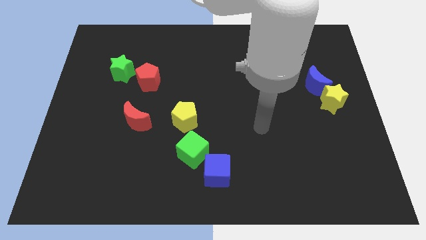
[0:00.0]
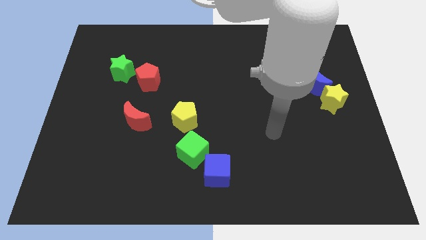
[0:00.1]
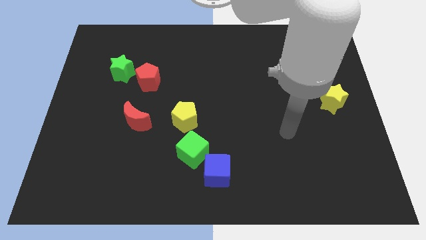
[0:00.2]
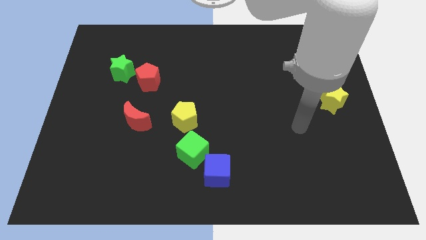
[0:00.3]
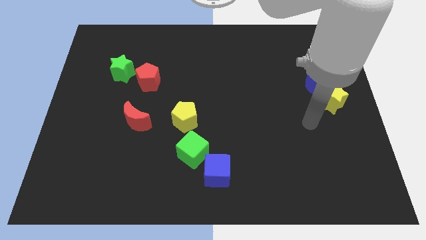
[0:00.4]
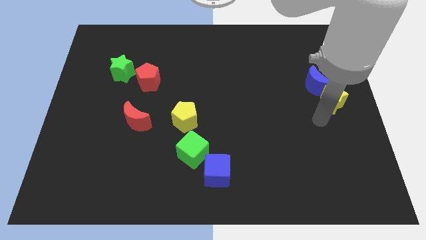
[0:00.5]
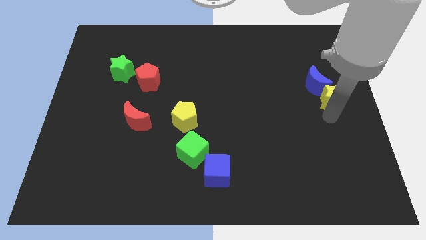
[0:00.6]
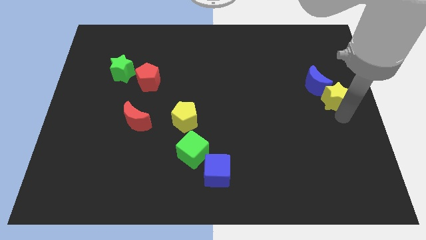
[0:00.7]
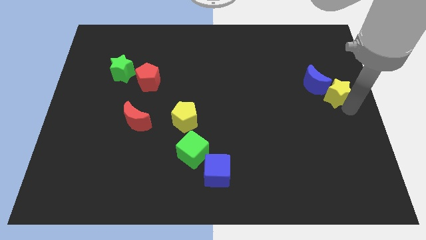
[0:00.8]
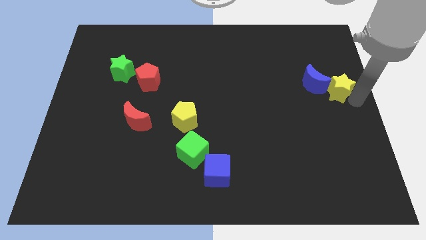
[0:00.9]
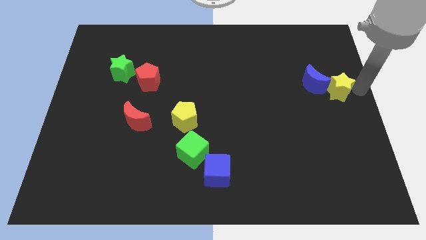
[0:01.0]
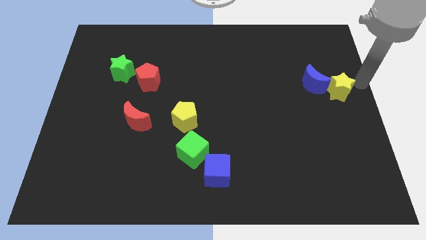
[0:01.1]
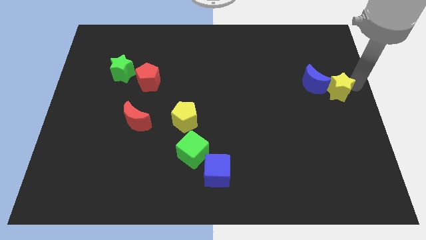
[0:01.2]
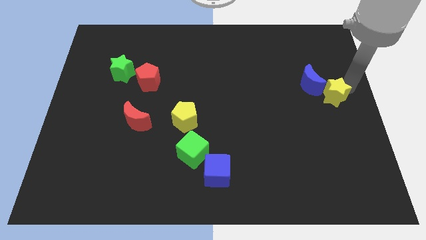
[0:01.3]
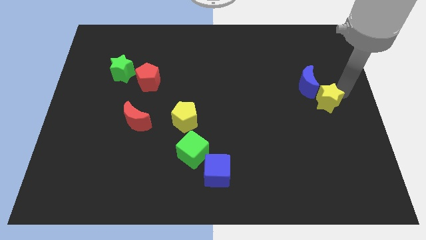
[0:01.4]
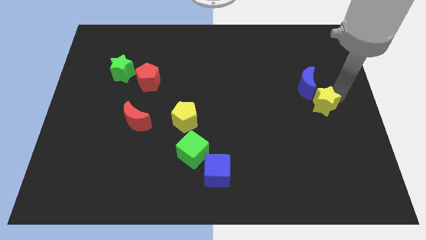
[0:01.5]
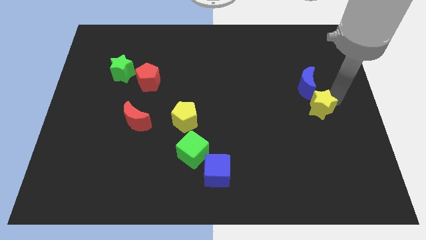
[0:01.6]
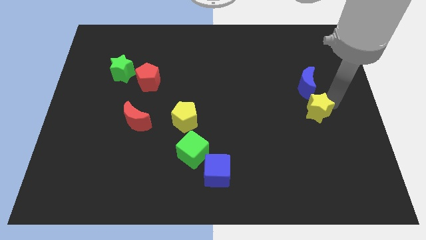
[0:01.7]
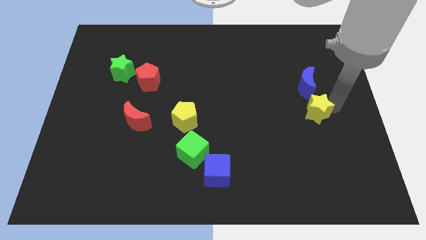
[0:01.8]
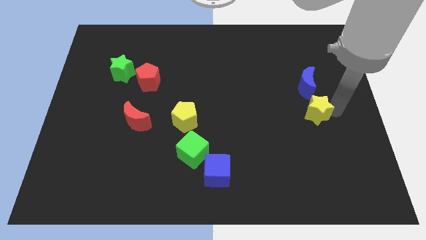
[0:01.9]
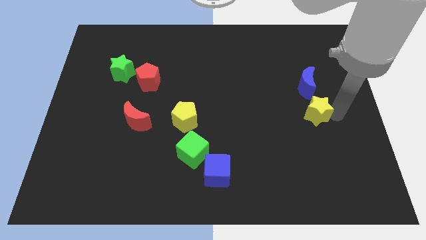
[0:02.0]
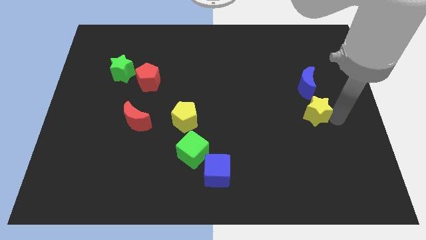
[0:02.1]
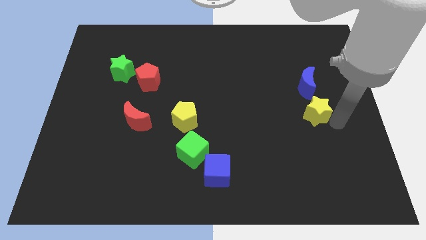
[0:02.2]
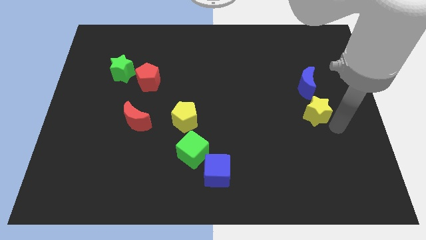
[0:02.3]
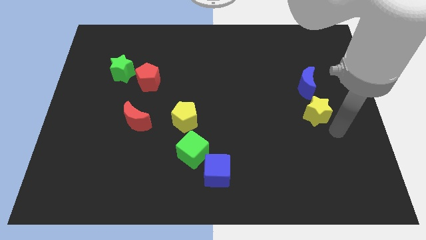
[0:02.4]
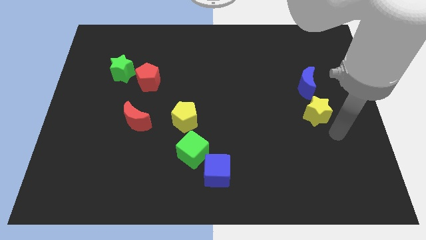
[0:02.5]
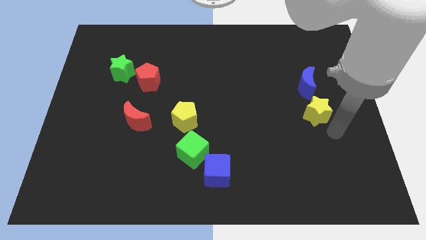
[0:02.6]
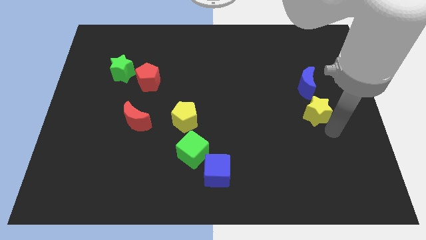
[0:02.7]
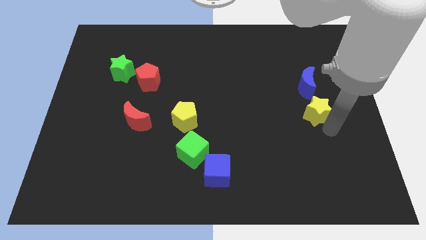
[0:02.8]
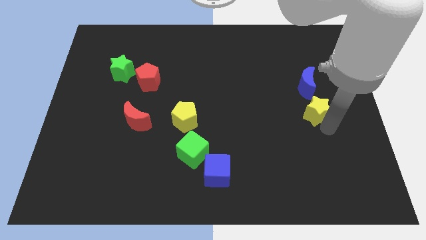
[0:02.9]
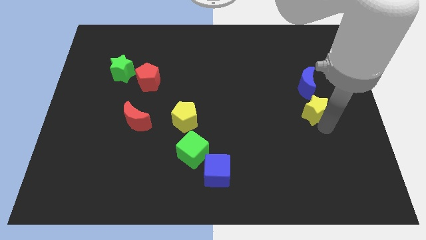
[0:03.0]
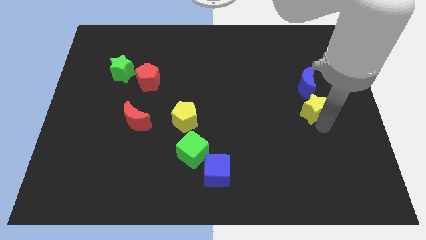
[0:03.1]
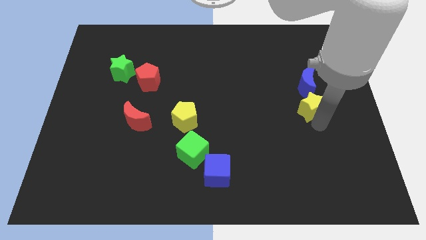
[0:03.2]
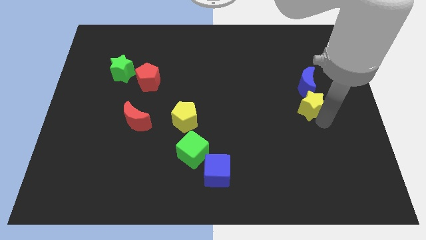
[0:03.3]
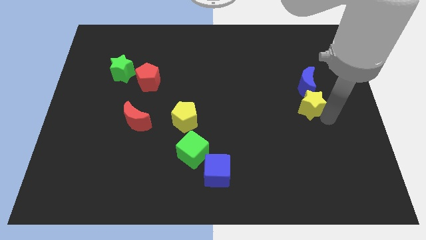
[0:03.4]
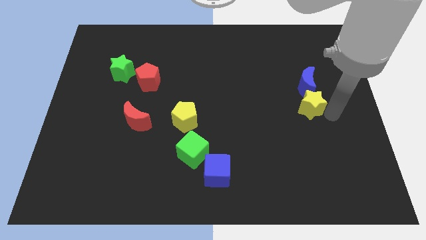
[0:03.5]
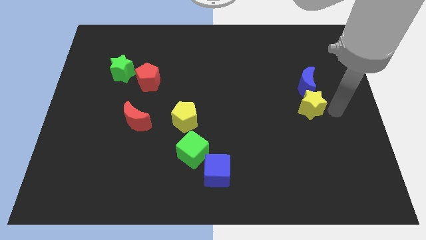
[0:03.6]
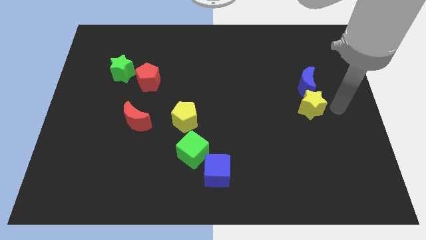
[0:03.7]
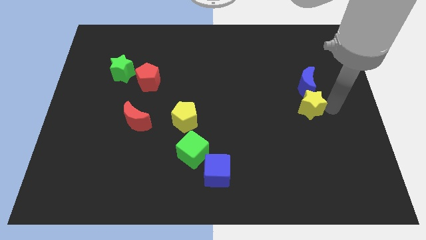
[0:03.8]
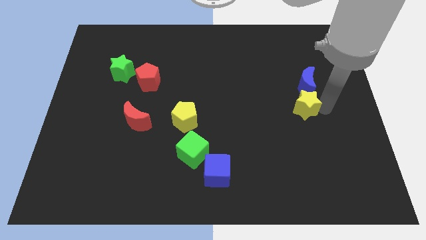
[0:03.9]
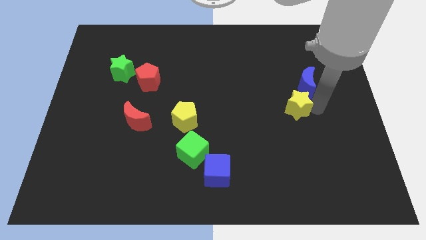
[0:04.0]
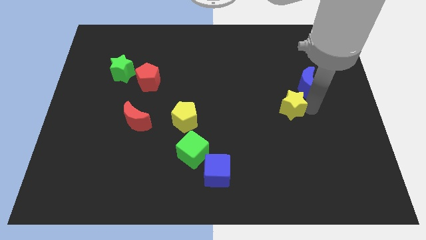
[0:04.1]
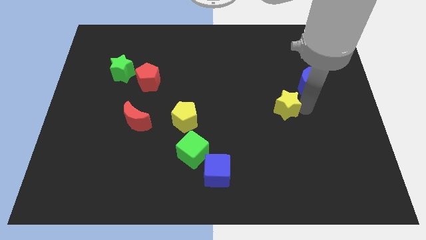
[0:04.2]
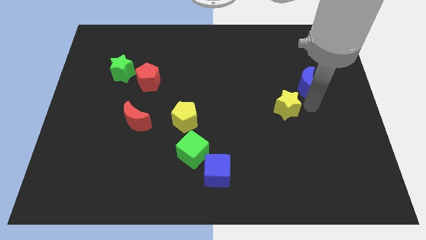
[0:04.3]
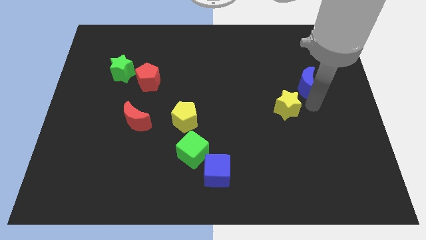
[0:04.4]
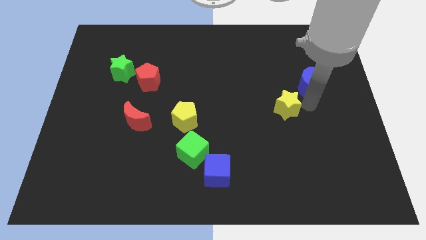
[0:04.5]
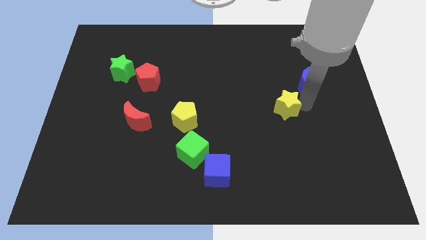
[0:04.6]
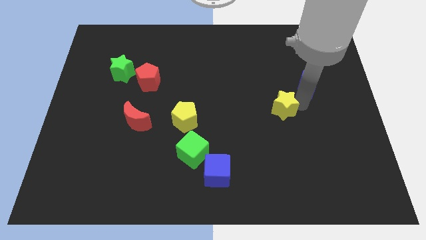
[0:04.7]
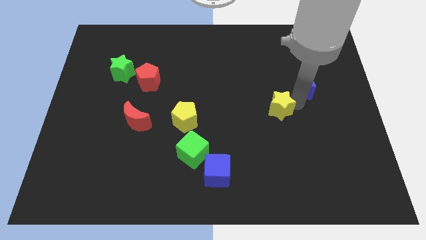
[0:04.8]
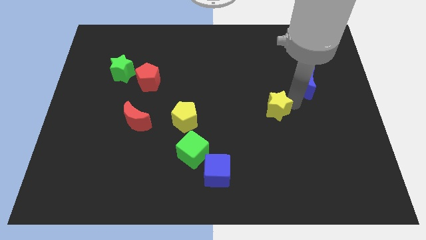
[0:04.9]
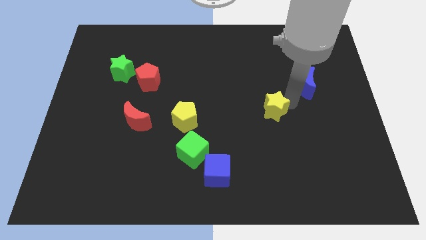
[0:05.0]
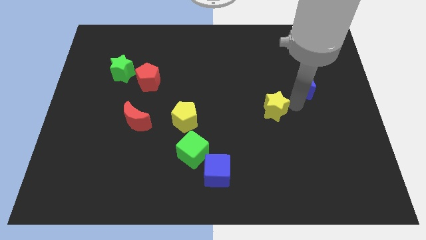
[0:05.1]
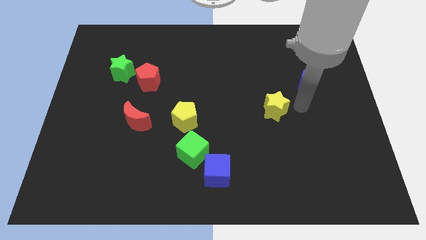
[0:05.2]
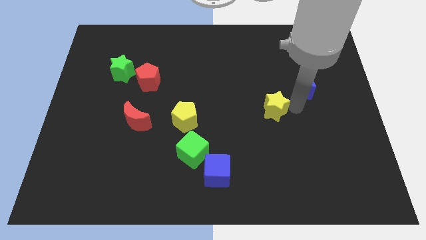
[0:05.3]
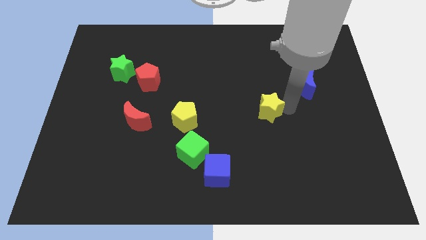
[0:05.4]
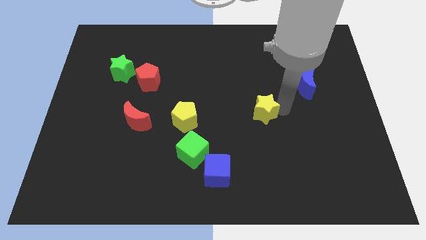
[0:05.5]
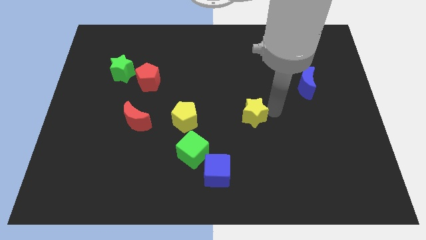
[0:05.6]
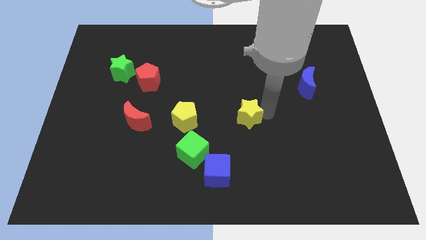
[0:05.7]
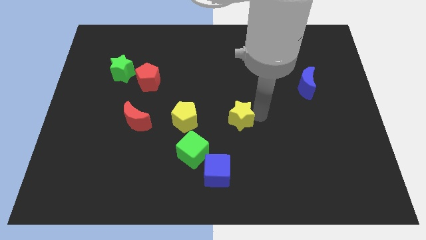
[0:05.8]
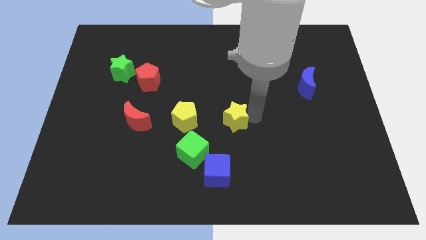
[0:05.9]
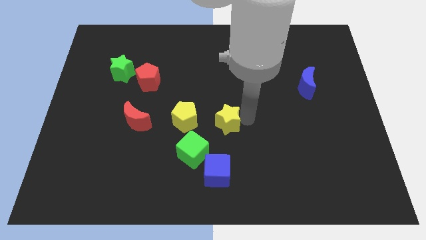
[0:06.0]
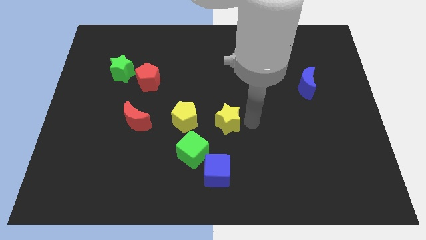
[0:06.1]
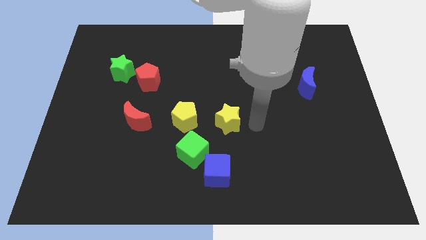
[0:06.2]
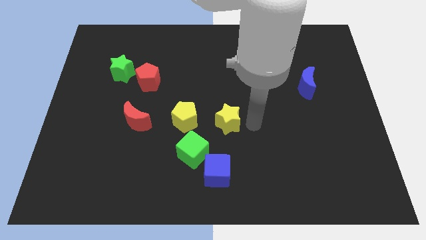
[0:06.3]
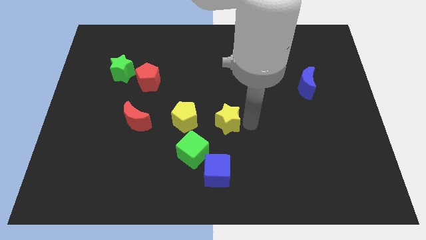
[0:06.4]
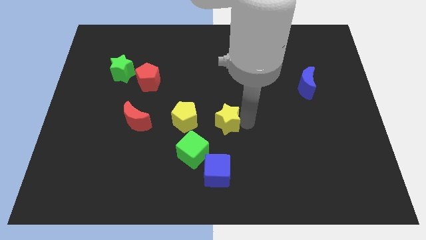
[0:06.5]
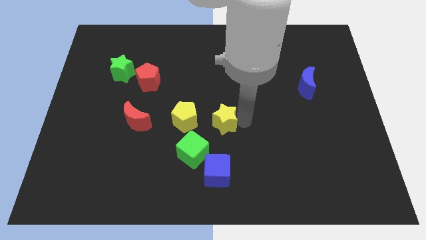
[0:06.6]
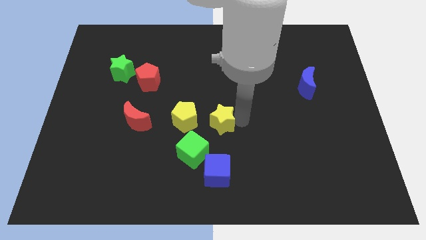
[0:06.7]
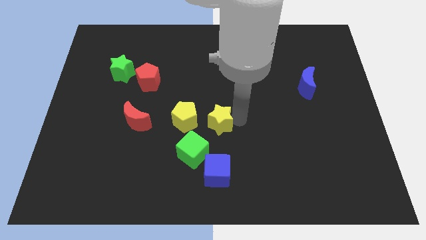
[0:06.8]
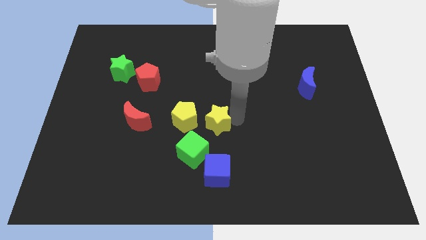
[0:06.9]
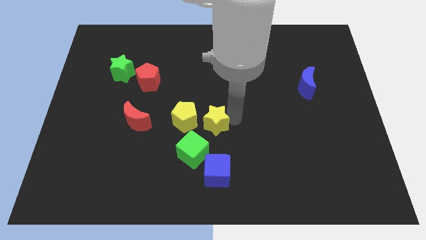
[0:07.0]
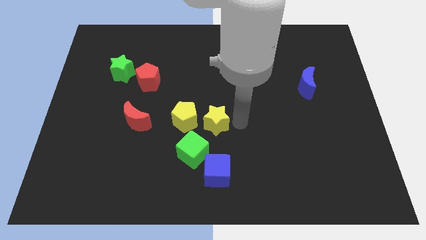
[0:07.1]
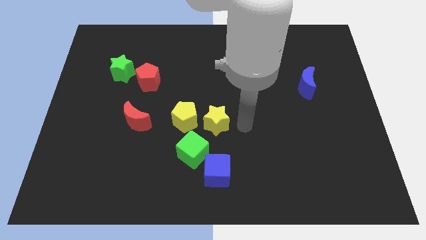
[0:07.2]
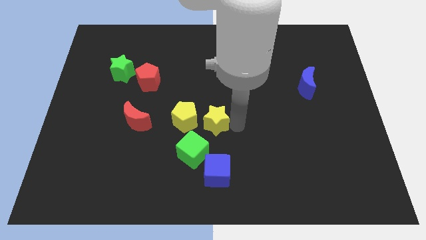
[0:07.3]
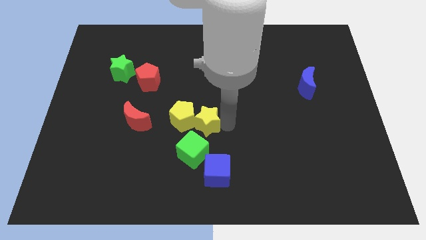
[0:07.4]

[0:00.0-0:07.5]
slide the yellow star to the right side of the red moon
